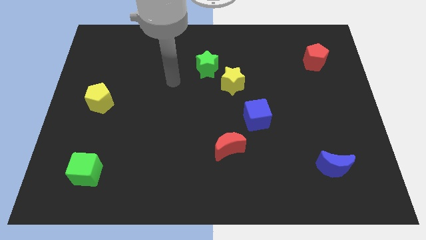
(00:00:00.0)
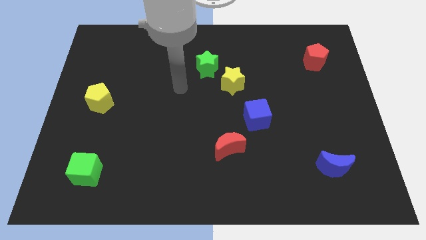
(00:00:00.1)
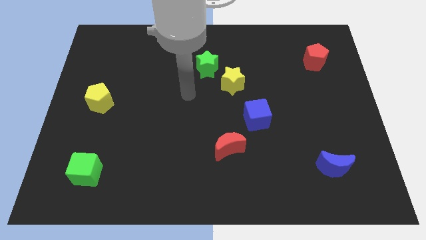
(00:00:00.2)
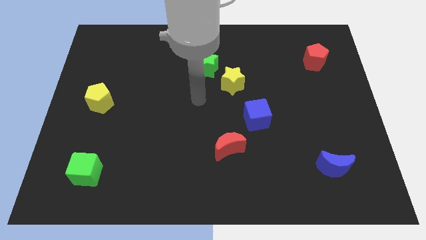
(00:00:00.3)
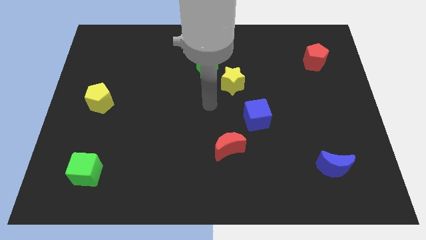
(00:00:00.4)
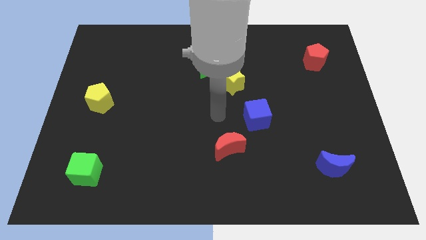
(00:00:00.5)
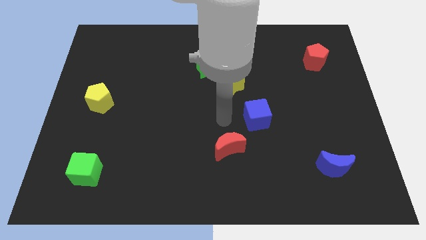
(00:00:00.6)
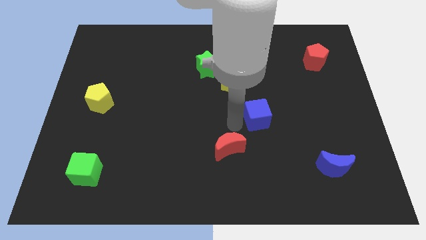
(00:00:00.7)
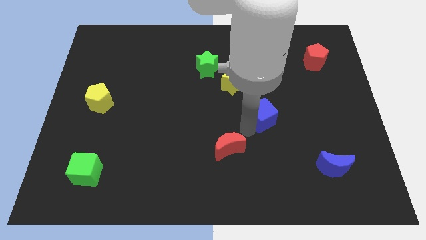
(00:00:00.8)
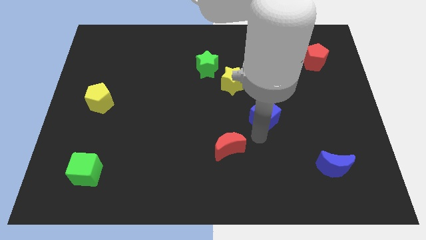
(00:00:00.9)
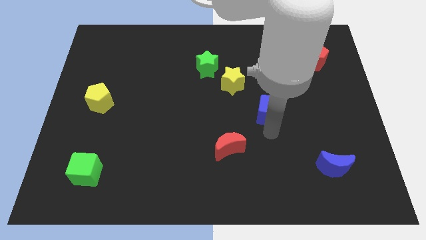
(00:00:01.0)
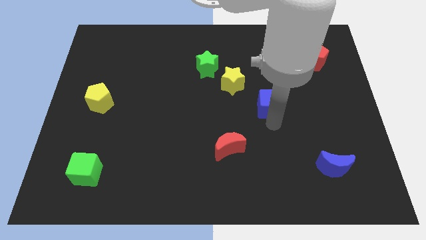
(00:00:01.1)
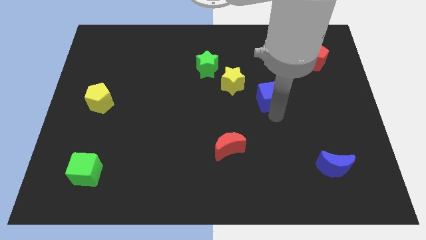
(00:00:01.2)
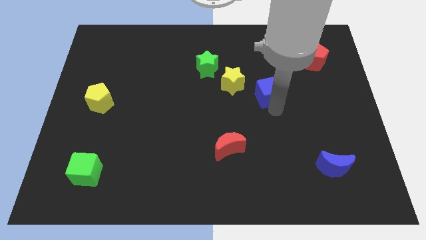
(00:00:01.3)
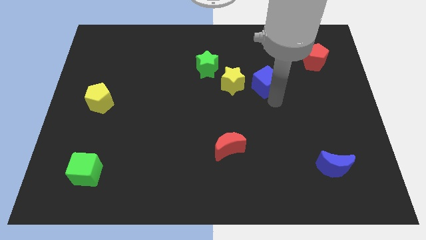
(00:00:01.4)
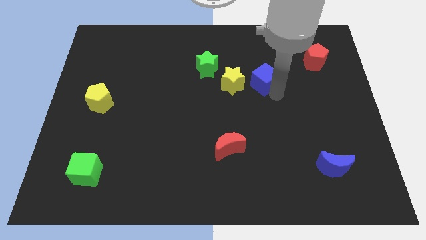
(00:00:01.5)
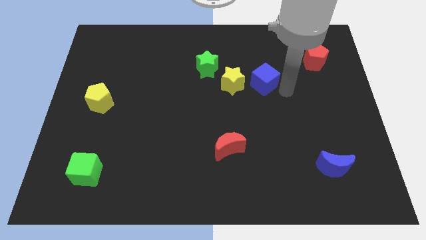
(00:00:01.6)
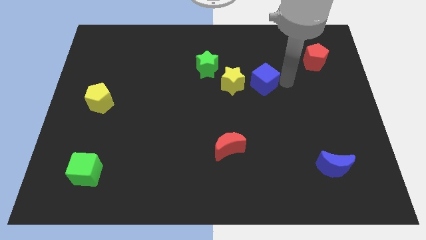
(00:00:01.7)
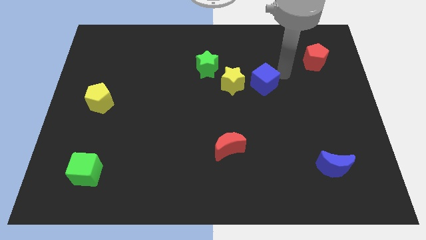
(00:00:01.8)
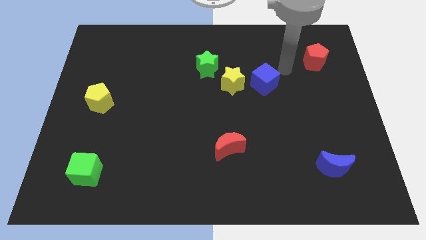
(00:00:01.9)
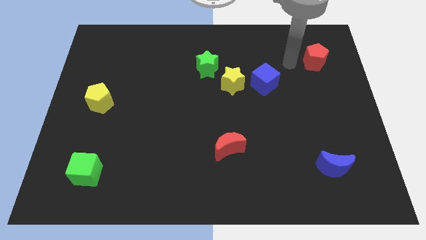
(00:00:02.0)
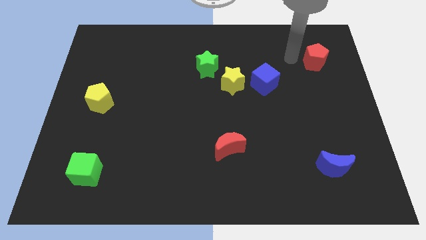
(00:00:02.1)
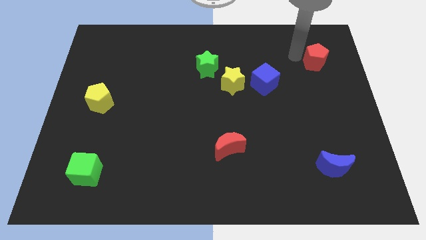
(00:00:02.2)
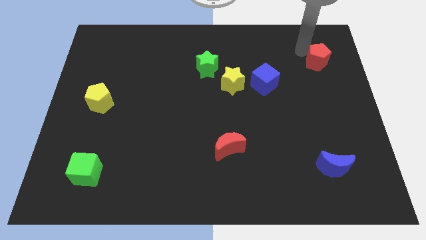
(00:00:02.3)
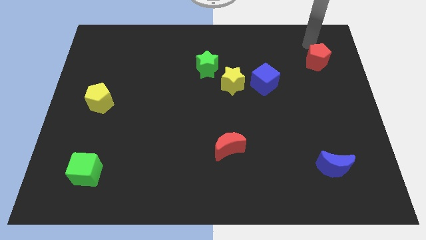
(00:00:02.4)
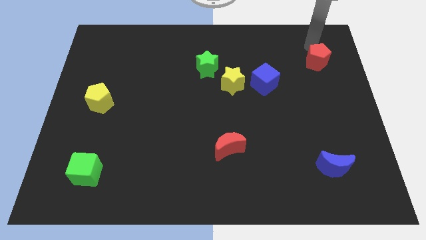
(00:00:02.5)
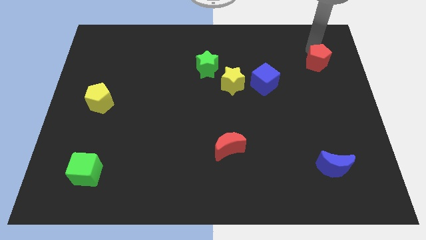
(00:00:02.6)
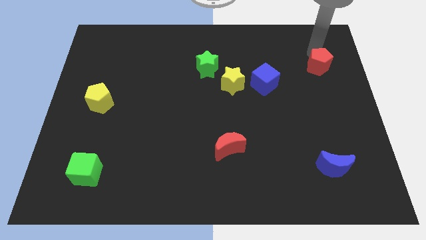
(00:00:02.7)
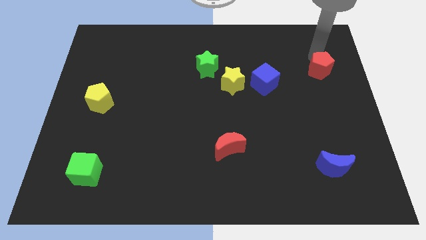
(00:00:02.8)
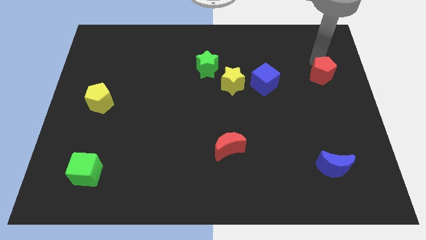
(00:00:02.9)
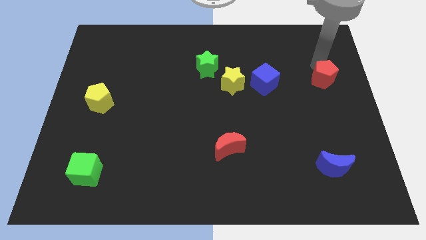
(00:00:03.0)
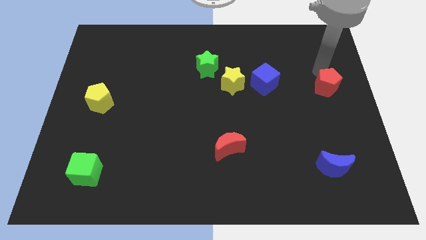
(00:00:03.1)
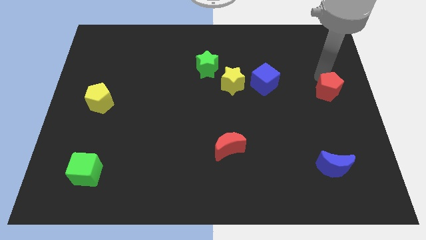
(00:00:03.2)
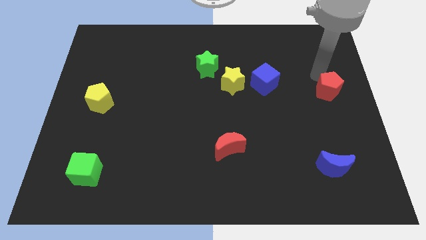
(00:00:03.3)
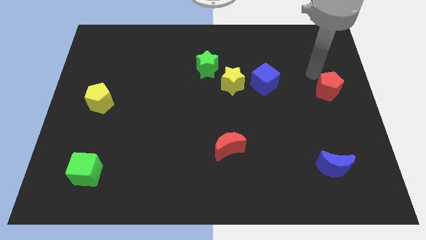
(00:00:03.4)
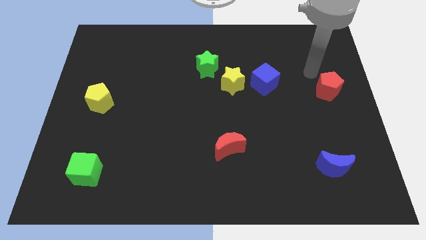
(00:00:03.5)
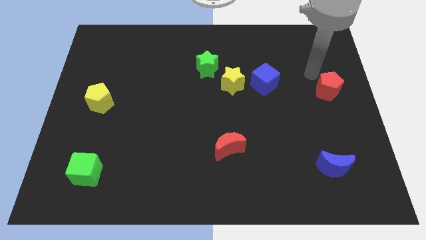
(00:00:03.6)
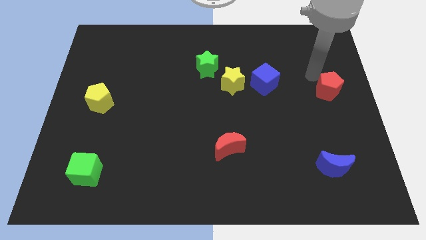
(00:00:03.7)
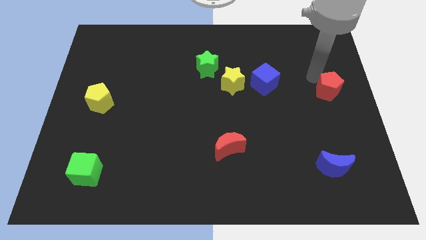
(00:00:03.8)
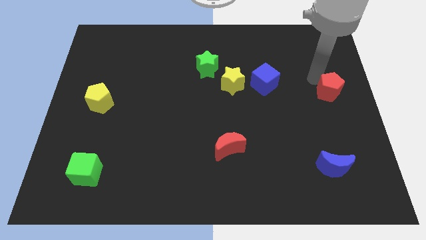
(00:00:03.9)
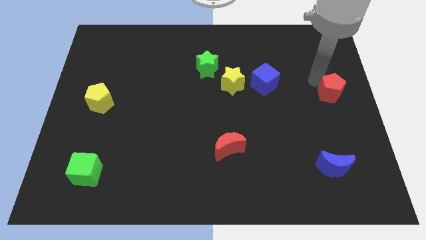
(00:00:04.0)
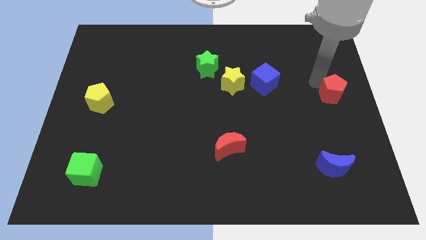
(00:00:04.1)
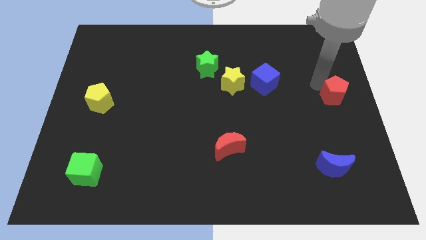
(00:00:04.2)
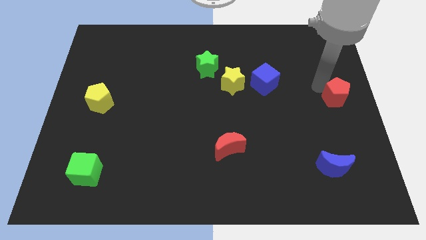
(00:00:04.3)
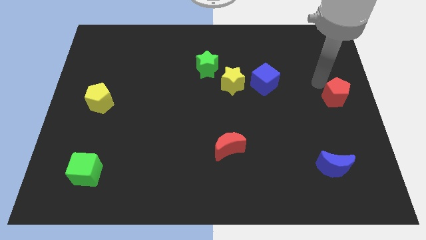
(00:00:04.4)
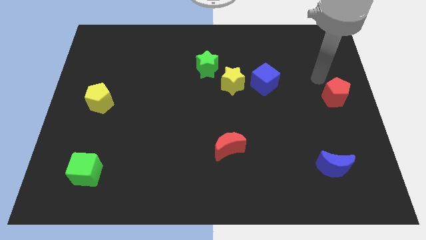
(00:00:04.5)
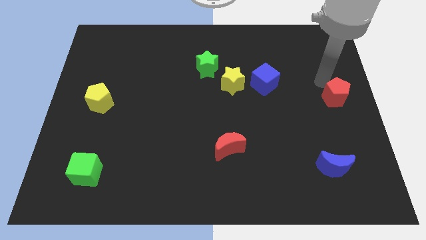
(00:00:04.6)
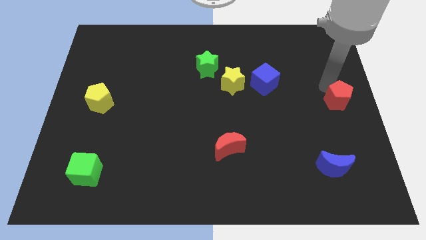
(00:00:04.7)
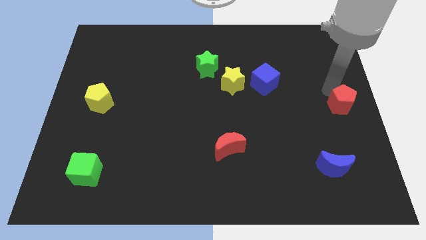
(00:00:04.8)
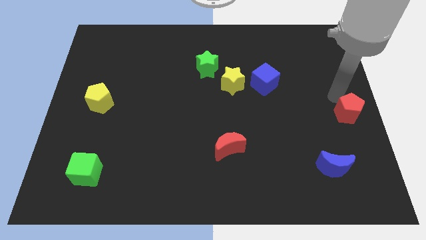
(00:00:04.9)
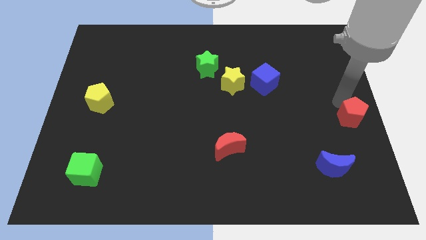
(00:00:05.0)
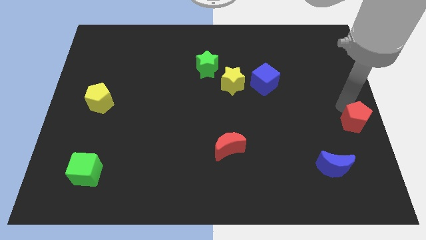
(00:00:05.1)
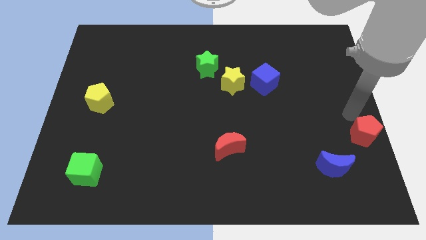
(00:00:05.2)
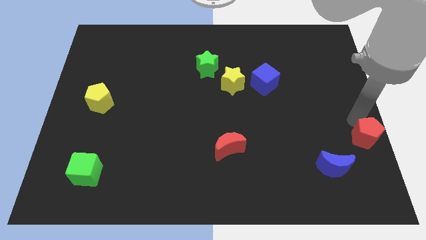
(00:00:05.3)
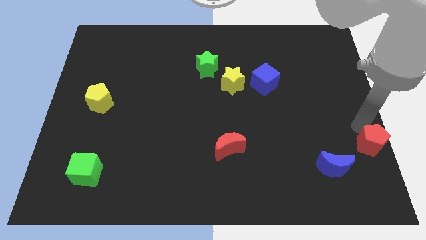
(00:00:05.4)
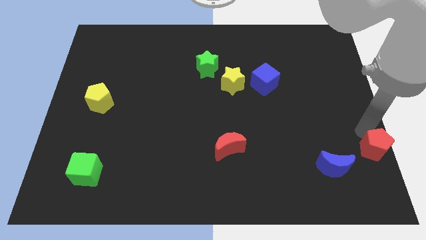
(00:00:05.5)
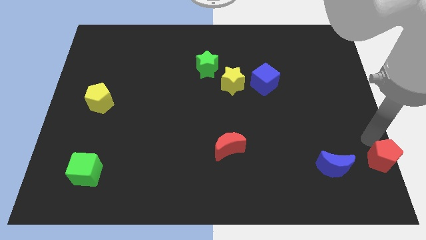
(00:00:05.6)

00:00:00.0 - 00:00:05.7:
move the red pentagon to the bottom right corner

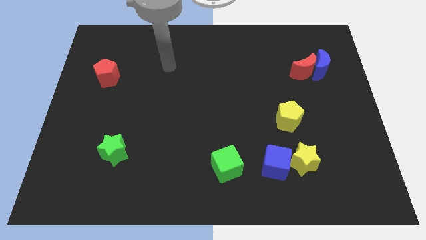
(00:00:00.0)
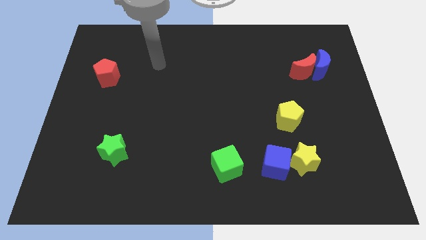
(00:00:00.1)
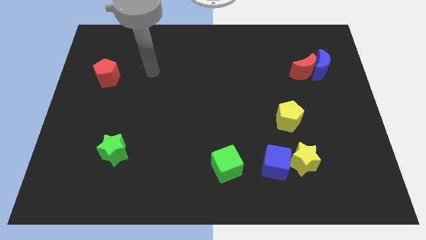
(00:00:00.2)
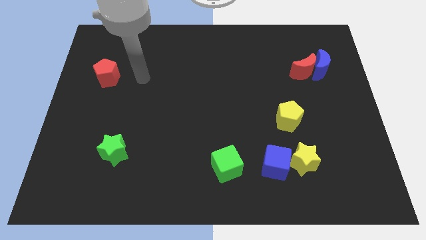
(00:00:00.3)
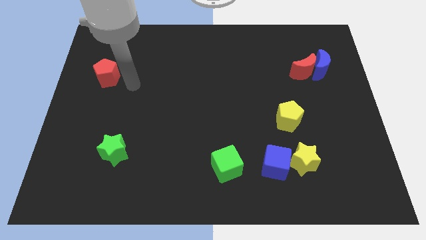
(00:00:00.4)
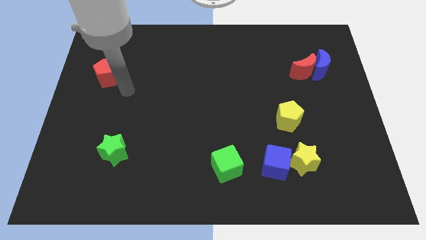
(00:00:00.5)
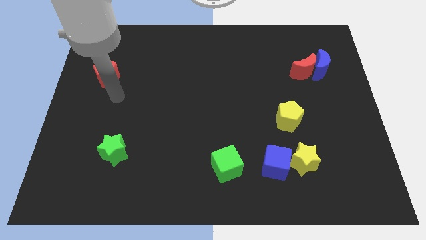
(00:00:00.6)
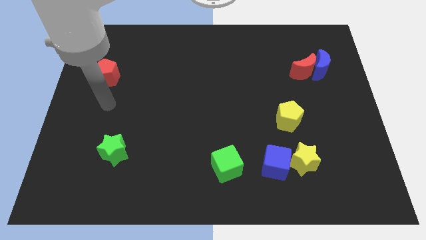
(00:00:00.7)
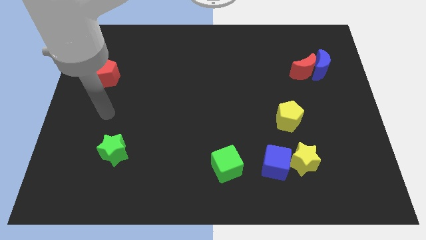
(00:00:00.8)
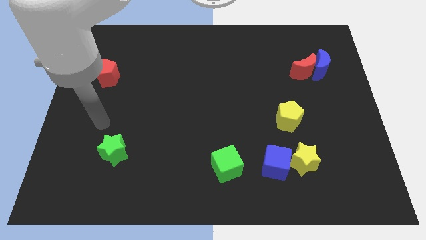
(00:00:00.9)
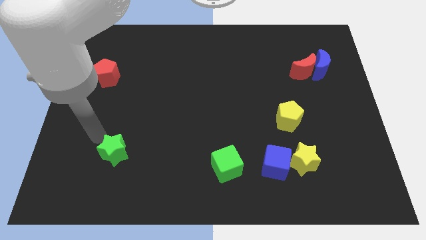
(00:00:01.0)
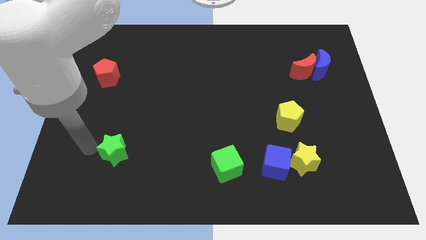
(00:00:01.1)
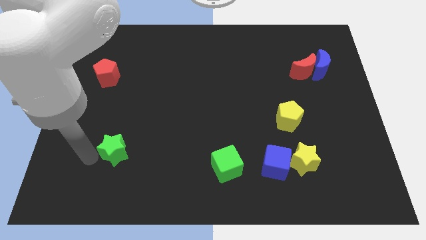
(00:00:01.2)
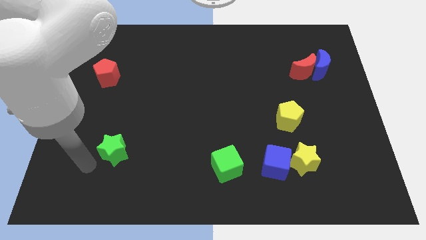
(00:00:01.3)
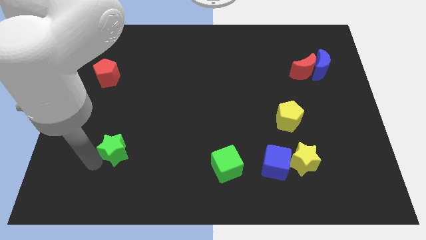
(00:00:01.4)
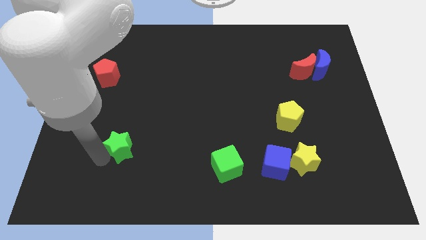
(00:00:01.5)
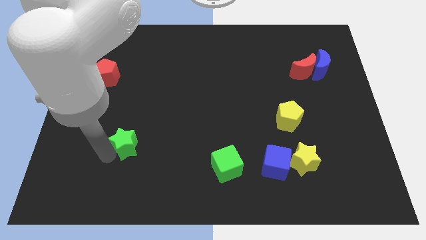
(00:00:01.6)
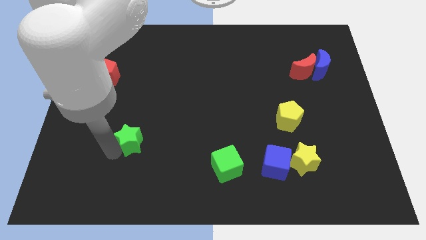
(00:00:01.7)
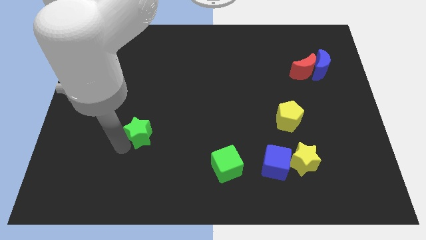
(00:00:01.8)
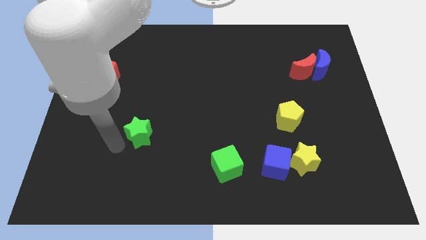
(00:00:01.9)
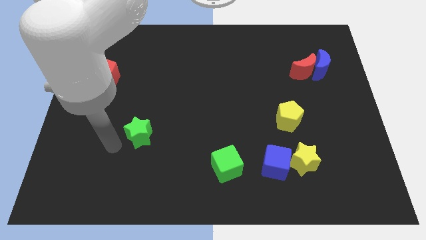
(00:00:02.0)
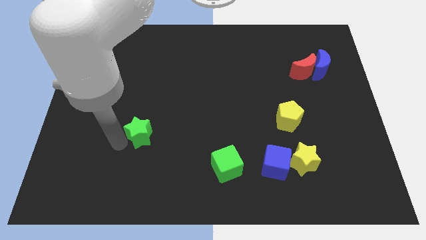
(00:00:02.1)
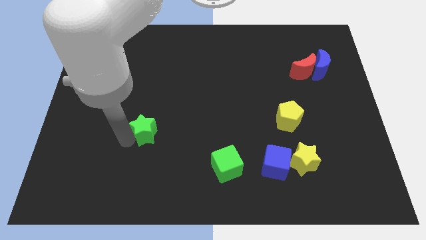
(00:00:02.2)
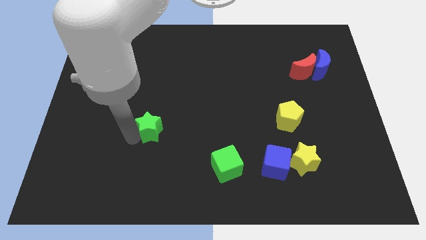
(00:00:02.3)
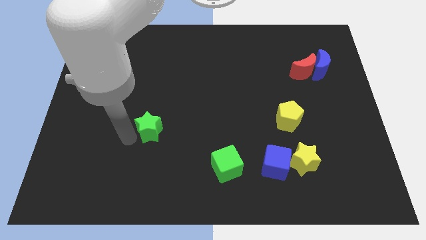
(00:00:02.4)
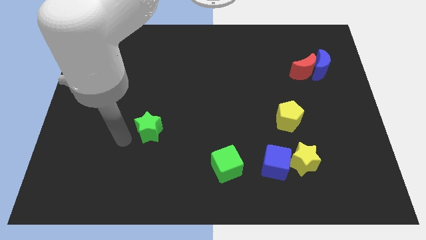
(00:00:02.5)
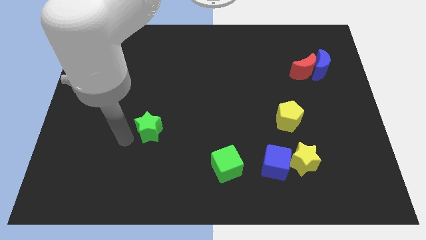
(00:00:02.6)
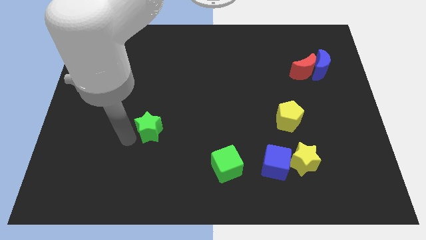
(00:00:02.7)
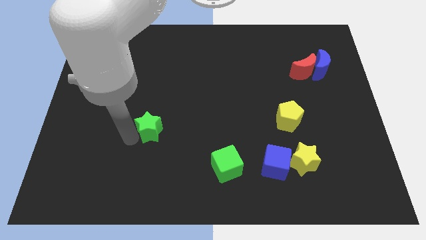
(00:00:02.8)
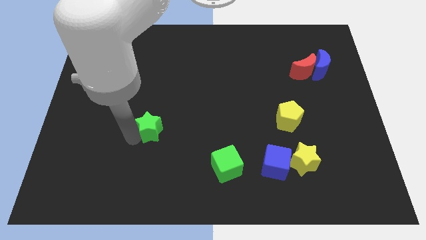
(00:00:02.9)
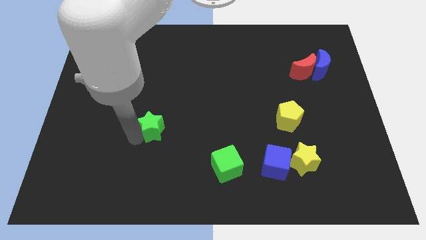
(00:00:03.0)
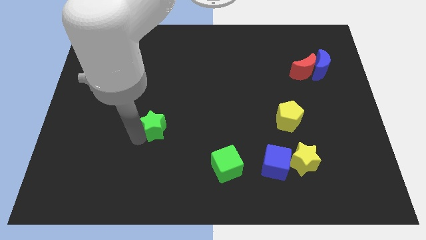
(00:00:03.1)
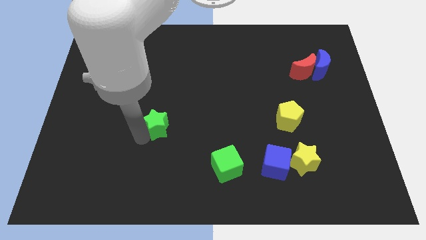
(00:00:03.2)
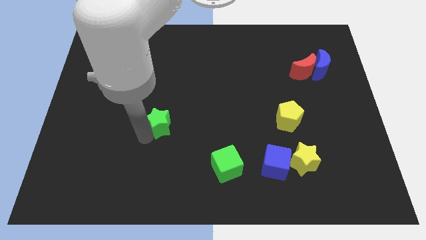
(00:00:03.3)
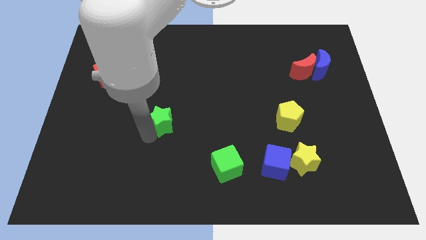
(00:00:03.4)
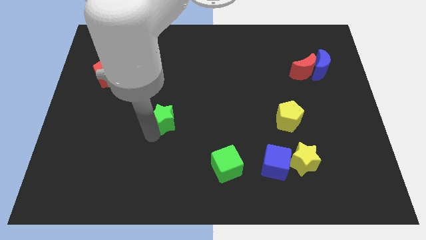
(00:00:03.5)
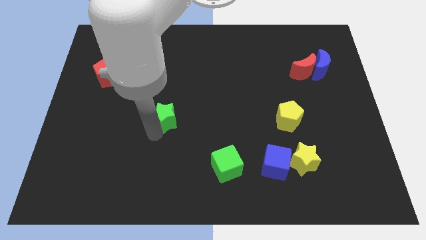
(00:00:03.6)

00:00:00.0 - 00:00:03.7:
put the green star to the center of the board
